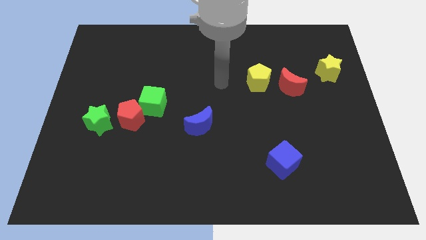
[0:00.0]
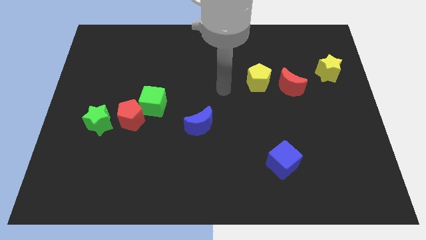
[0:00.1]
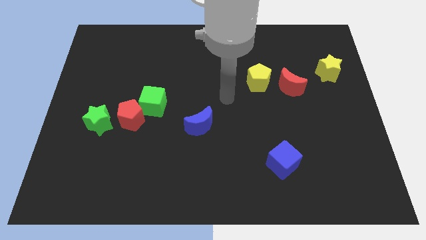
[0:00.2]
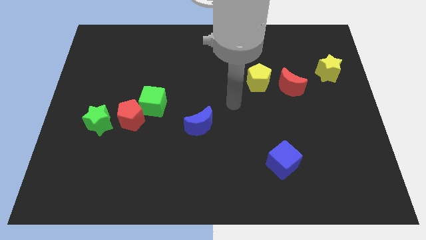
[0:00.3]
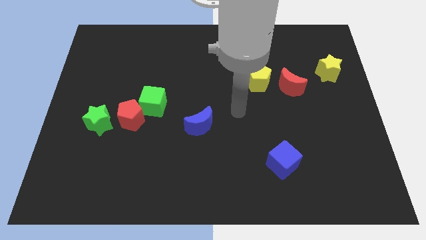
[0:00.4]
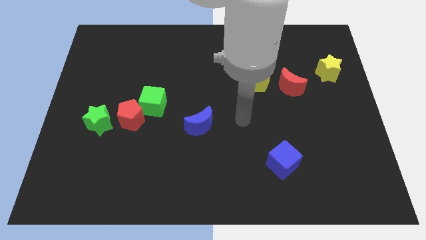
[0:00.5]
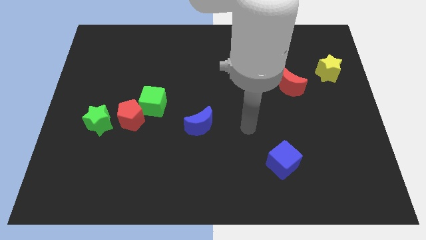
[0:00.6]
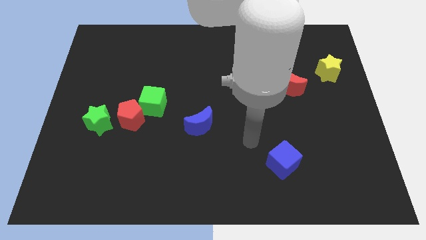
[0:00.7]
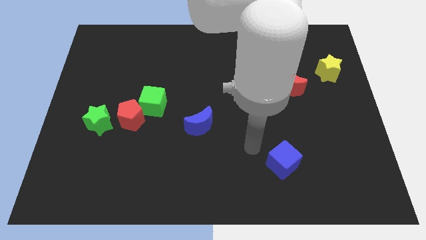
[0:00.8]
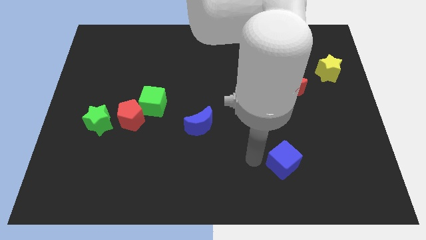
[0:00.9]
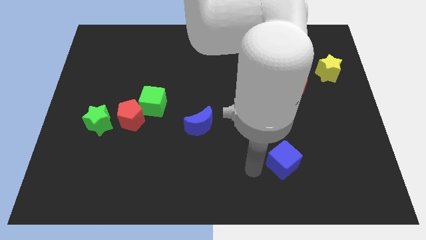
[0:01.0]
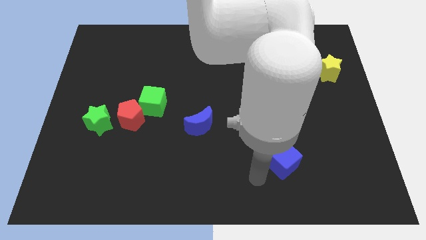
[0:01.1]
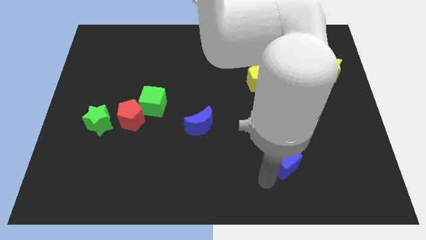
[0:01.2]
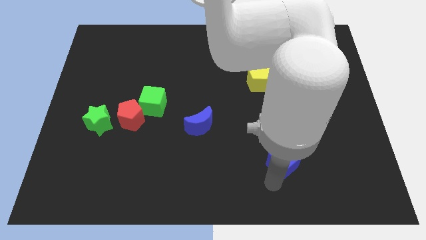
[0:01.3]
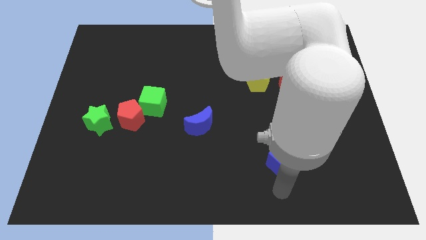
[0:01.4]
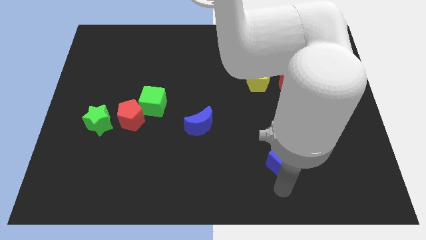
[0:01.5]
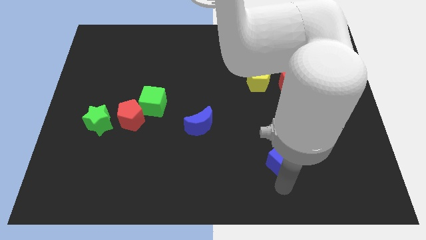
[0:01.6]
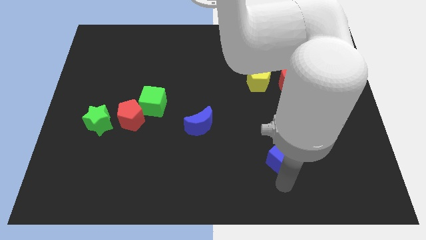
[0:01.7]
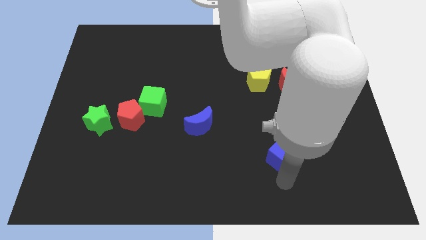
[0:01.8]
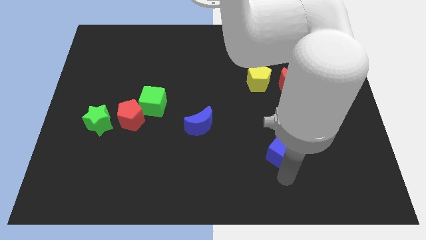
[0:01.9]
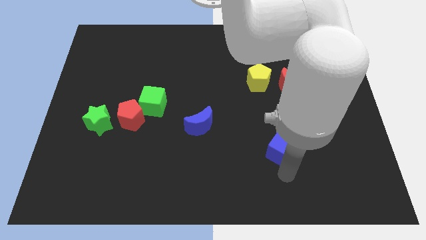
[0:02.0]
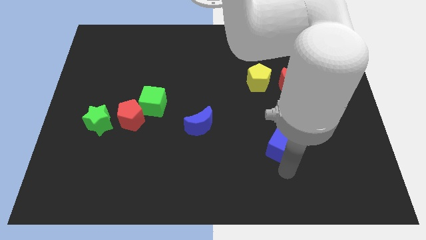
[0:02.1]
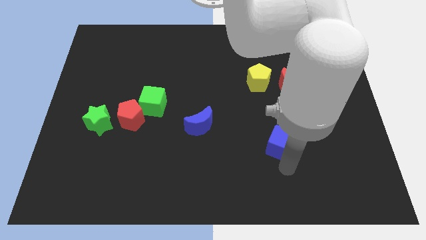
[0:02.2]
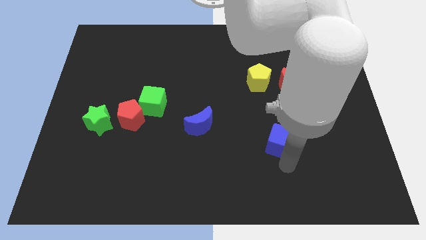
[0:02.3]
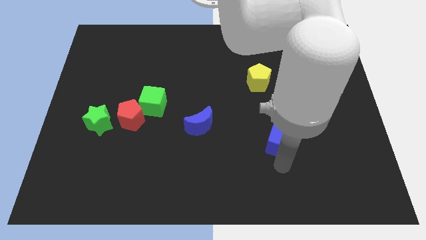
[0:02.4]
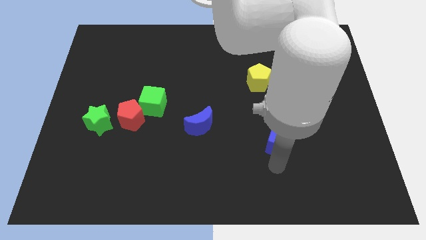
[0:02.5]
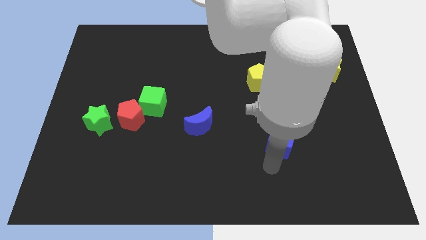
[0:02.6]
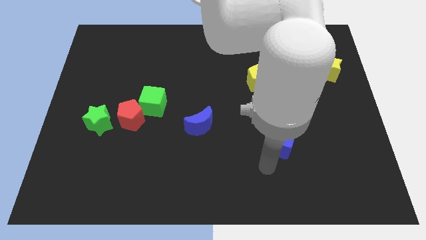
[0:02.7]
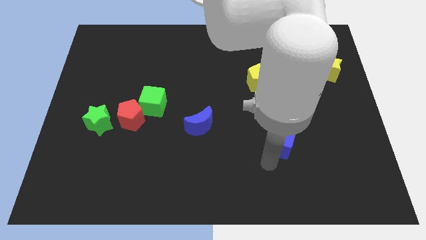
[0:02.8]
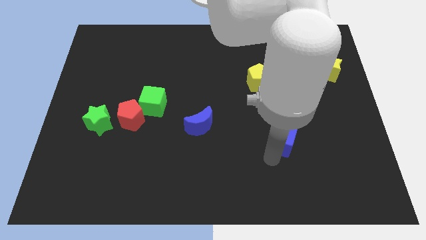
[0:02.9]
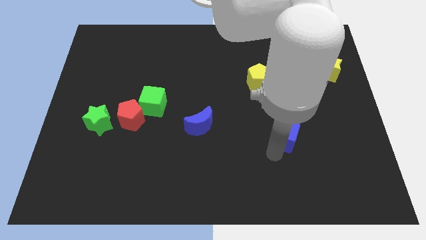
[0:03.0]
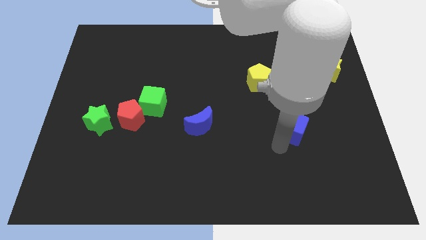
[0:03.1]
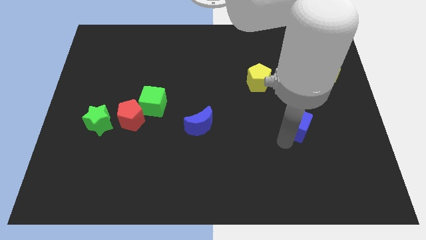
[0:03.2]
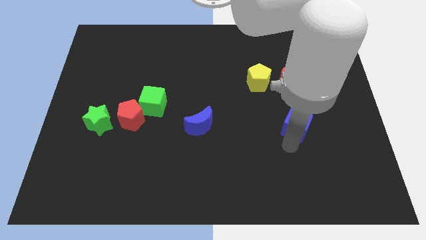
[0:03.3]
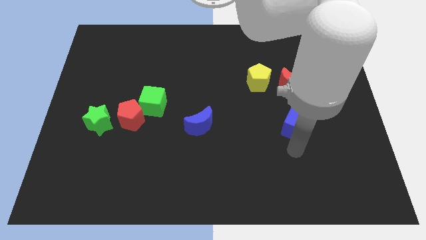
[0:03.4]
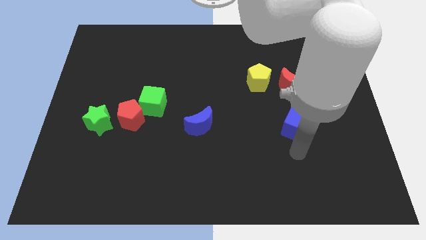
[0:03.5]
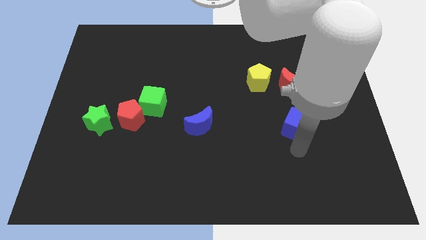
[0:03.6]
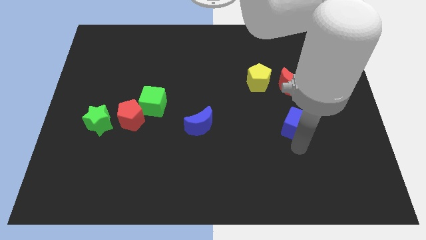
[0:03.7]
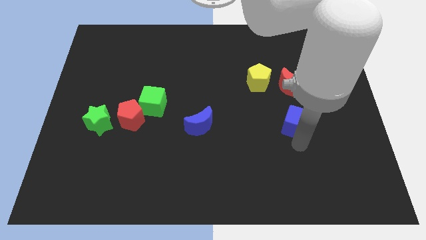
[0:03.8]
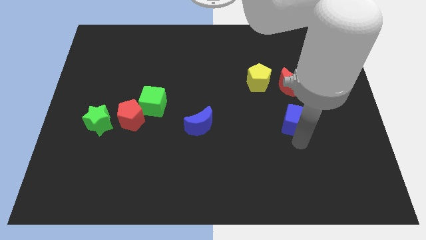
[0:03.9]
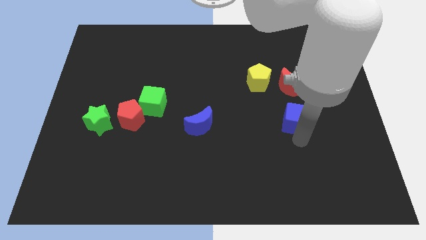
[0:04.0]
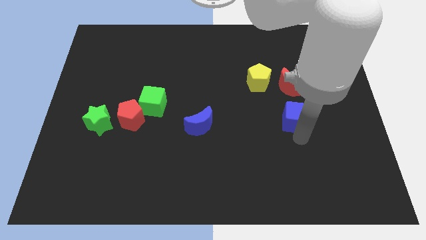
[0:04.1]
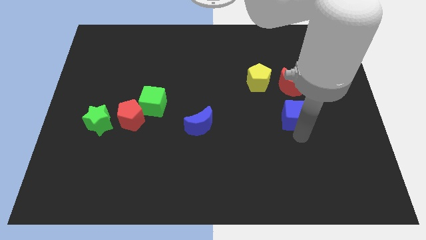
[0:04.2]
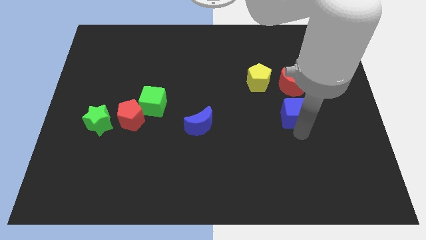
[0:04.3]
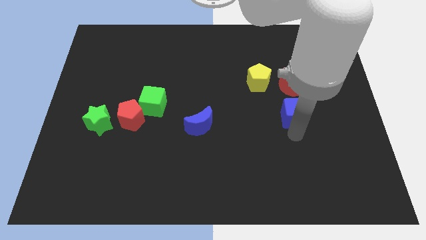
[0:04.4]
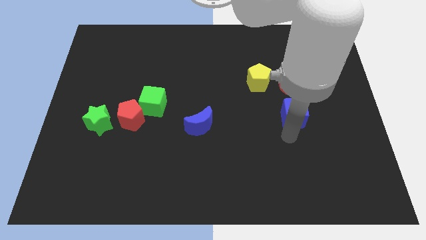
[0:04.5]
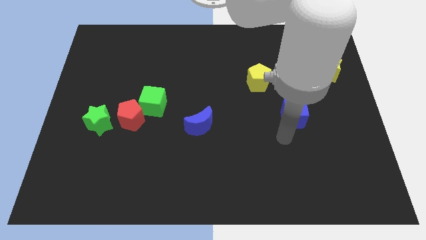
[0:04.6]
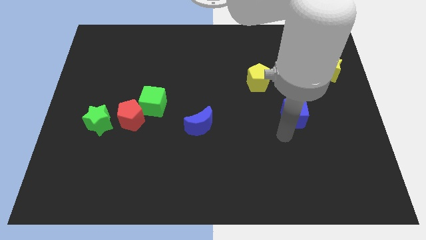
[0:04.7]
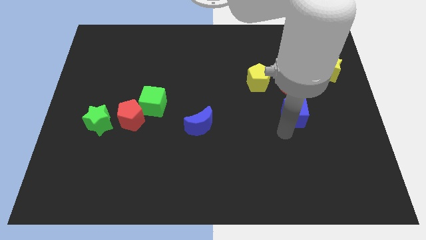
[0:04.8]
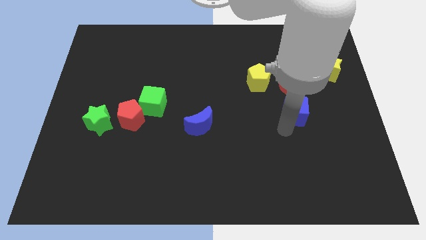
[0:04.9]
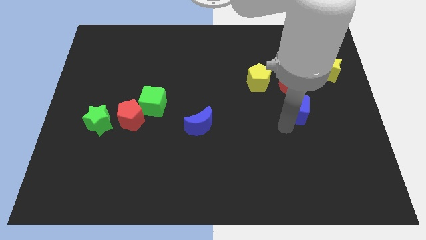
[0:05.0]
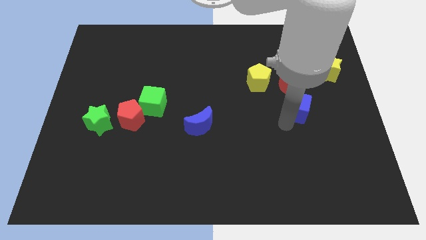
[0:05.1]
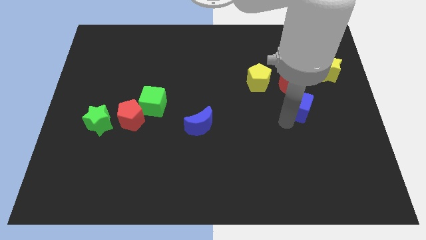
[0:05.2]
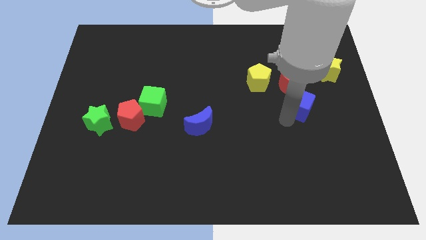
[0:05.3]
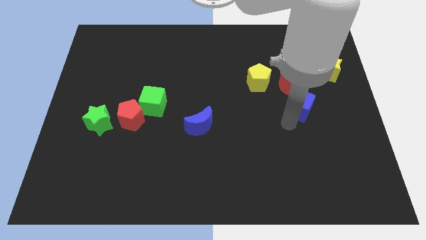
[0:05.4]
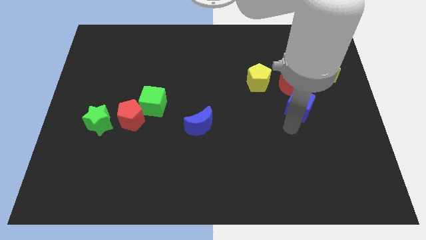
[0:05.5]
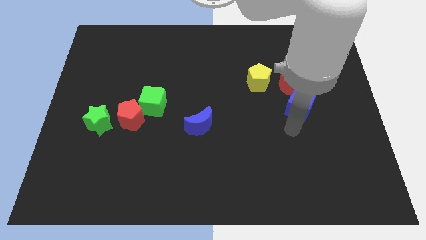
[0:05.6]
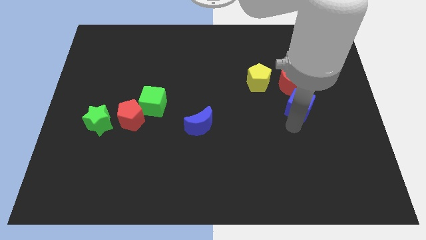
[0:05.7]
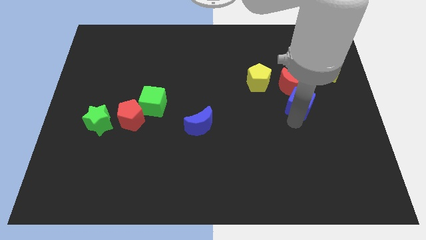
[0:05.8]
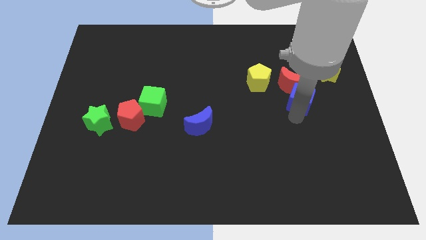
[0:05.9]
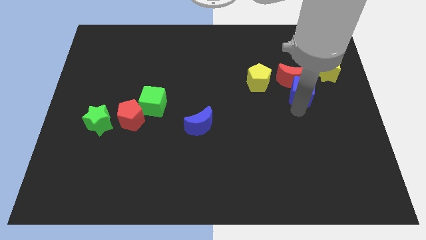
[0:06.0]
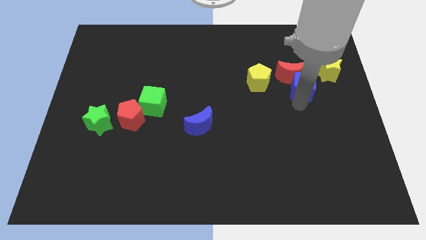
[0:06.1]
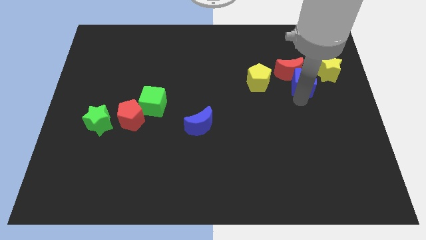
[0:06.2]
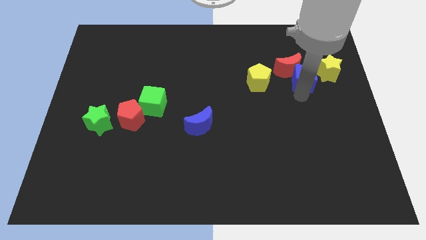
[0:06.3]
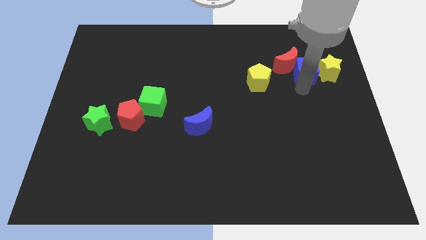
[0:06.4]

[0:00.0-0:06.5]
move the blue cube to the top left of the yellow star
